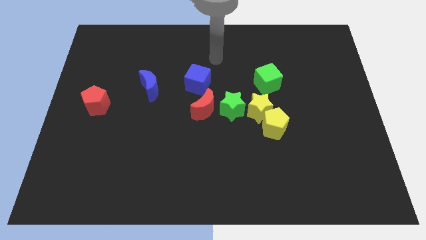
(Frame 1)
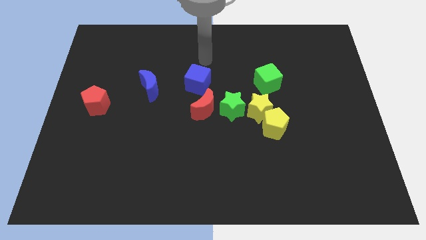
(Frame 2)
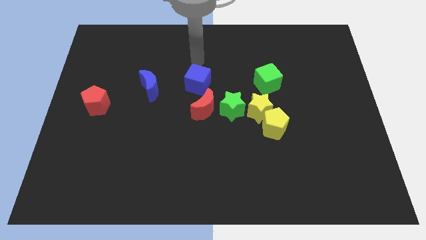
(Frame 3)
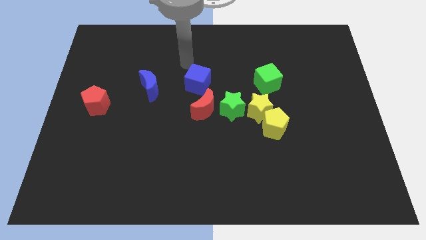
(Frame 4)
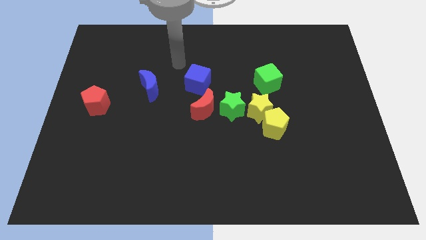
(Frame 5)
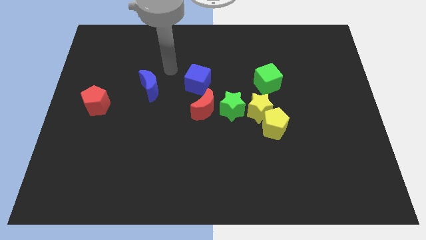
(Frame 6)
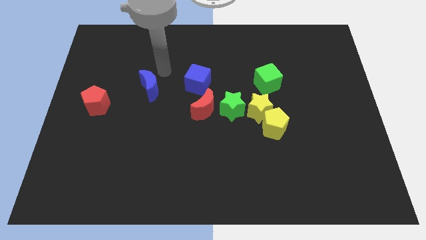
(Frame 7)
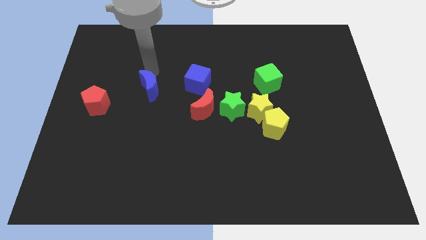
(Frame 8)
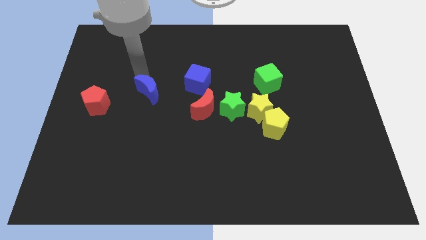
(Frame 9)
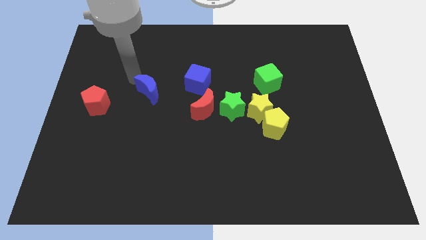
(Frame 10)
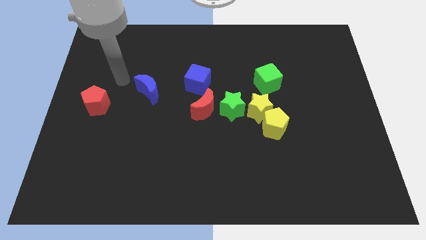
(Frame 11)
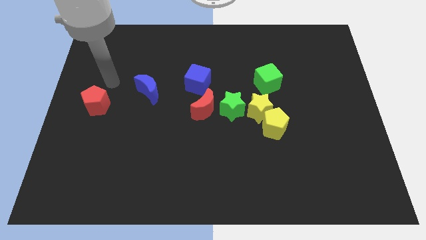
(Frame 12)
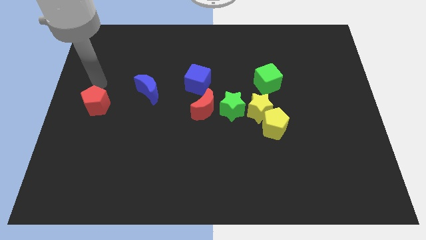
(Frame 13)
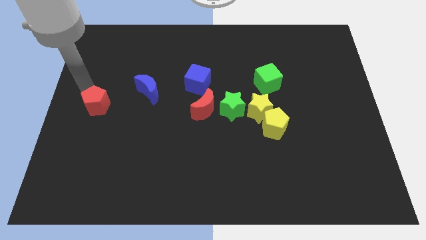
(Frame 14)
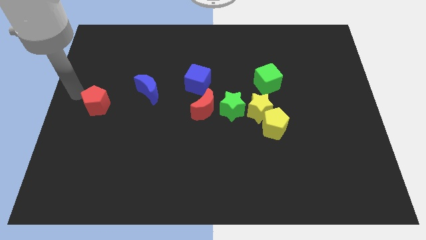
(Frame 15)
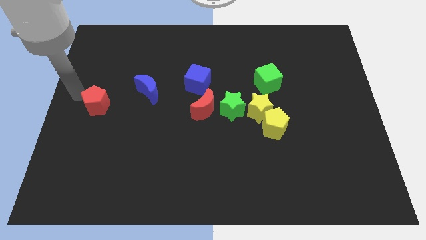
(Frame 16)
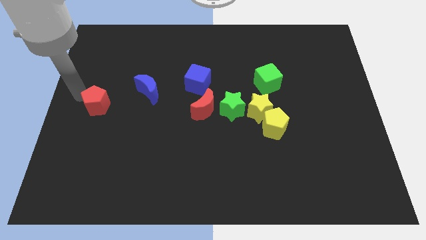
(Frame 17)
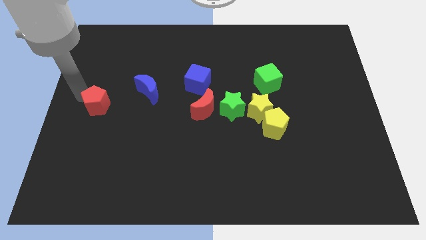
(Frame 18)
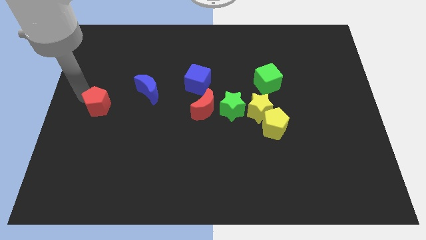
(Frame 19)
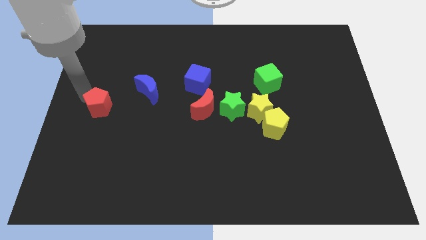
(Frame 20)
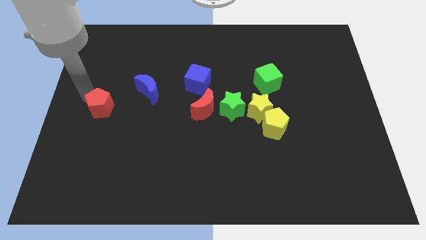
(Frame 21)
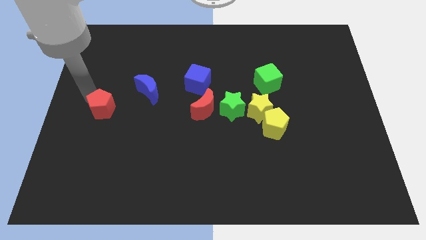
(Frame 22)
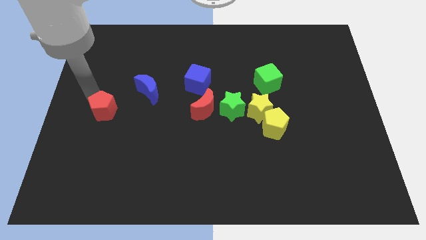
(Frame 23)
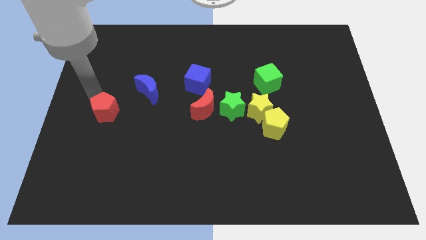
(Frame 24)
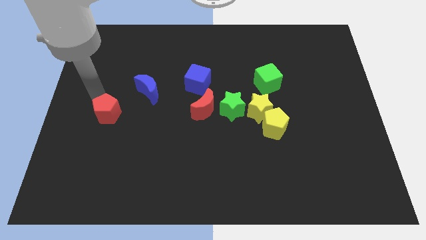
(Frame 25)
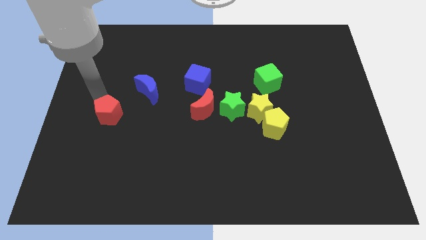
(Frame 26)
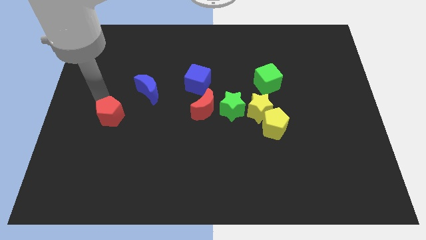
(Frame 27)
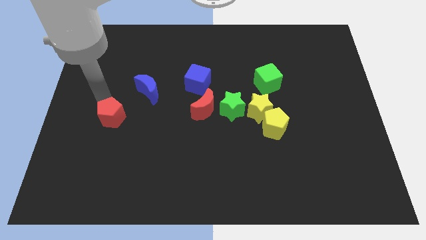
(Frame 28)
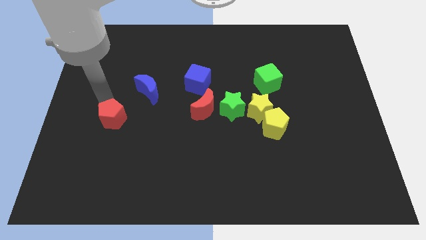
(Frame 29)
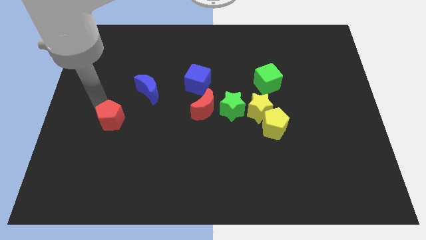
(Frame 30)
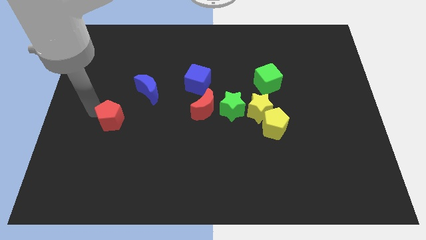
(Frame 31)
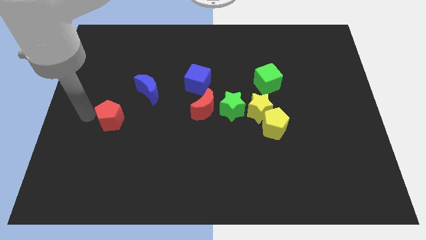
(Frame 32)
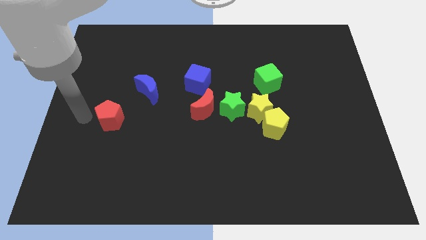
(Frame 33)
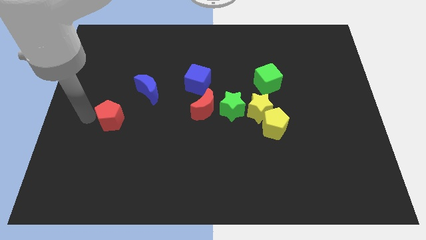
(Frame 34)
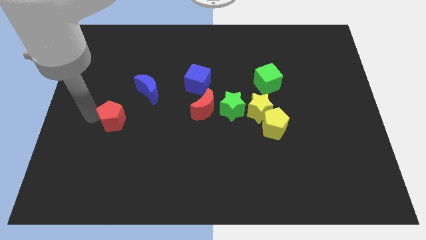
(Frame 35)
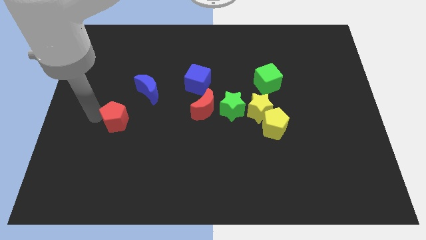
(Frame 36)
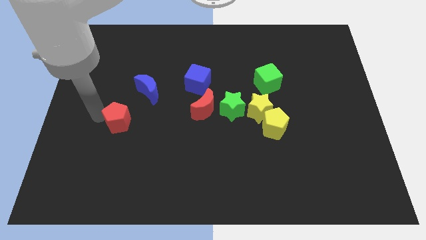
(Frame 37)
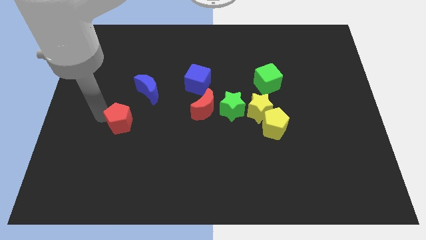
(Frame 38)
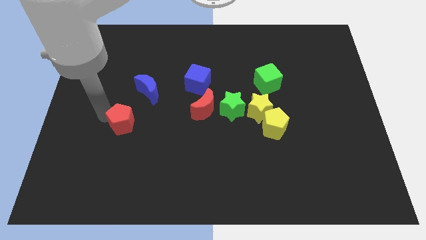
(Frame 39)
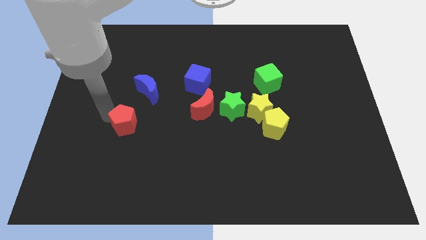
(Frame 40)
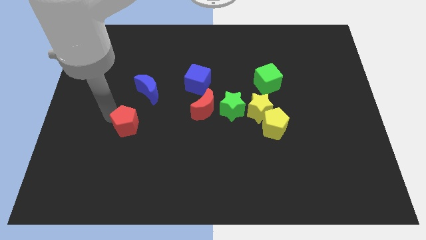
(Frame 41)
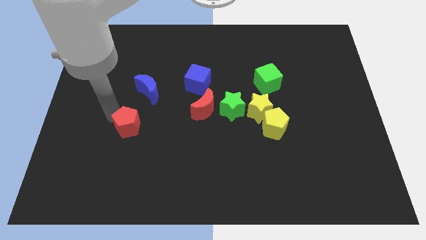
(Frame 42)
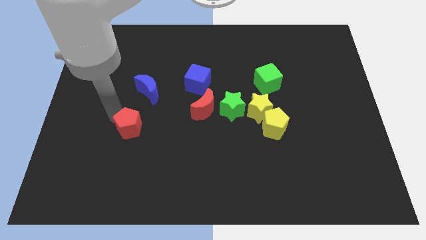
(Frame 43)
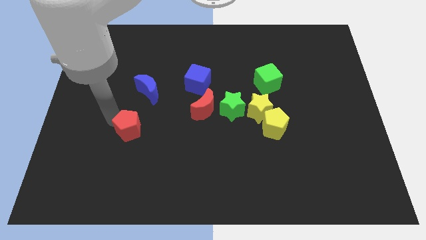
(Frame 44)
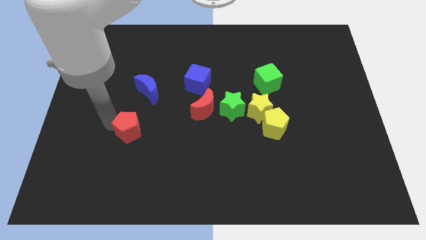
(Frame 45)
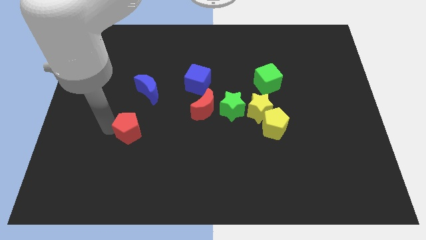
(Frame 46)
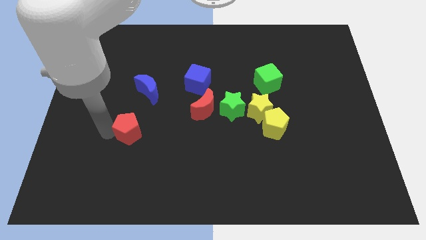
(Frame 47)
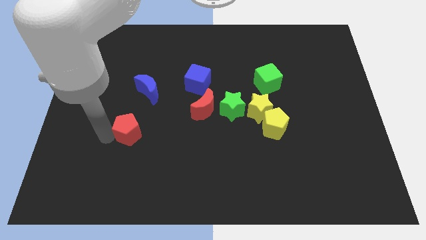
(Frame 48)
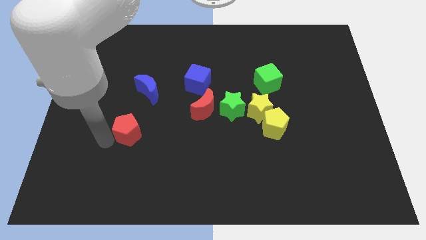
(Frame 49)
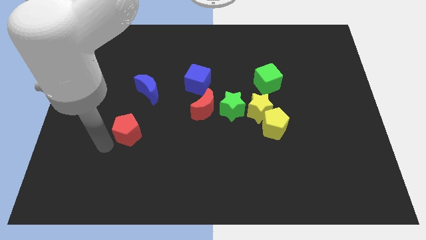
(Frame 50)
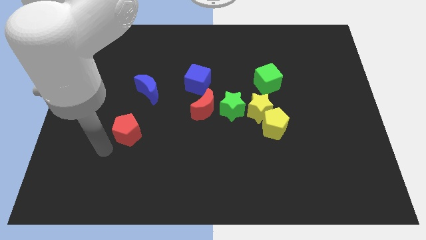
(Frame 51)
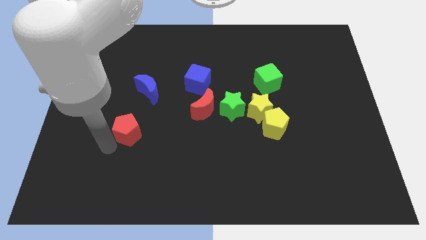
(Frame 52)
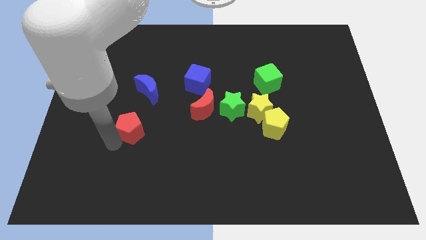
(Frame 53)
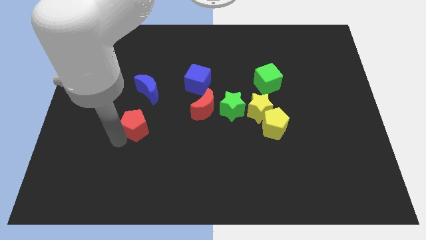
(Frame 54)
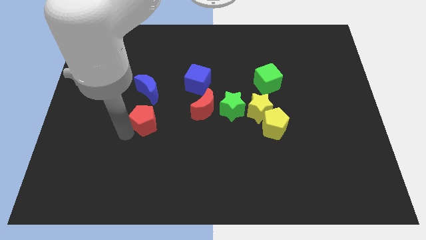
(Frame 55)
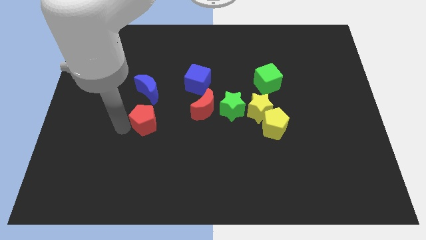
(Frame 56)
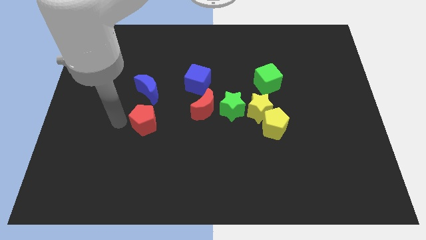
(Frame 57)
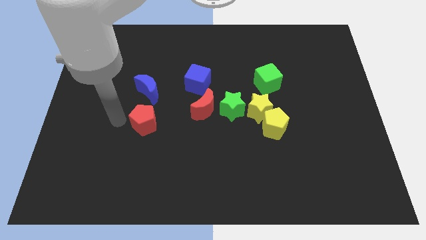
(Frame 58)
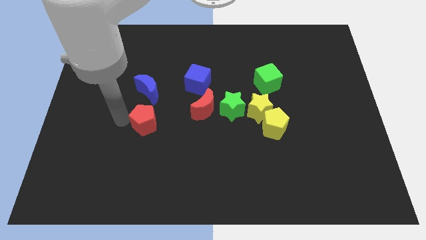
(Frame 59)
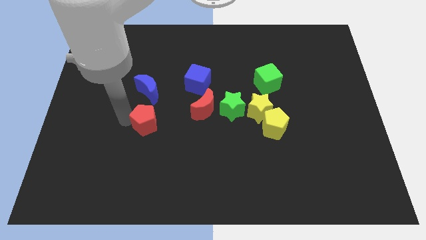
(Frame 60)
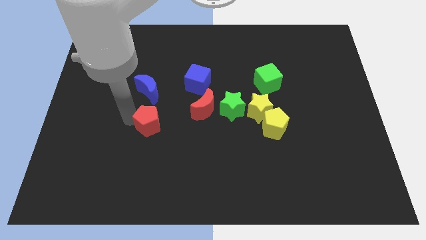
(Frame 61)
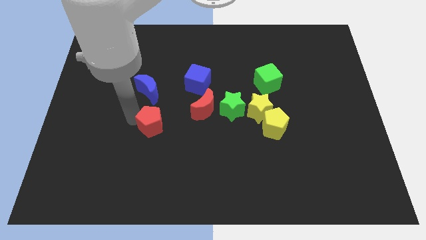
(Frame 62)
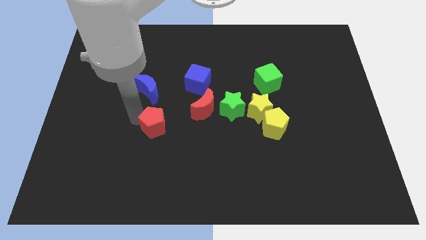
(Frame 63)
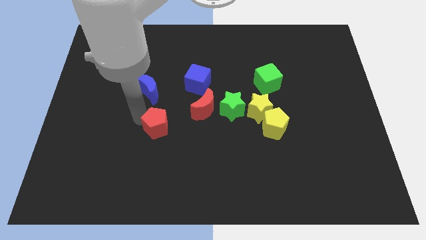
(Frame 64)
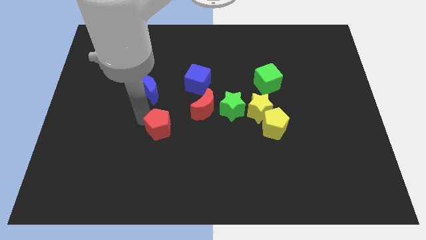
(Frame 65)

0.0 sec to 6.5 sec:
push the red pentagon diagonally down and to the left of the red moon
